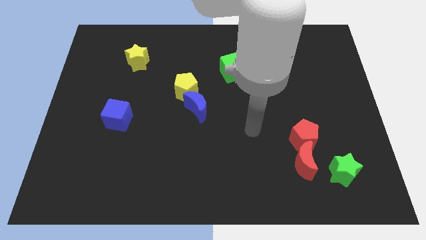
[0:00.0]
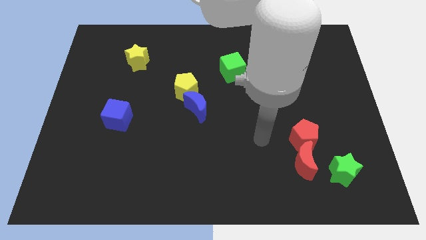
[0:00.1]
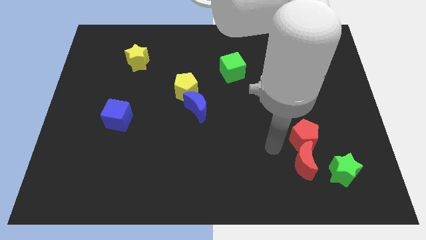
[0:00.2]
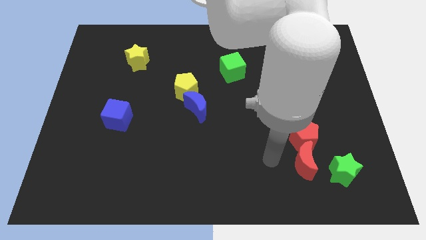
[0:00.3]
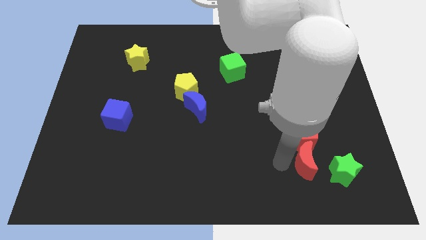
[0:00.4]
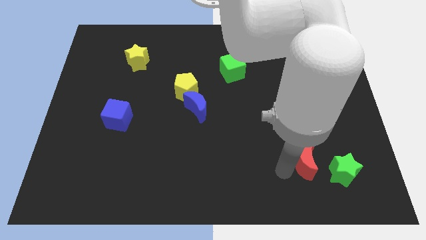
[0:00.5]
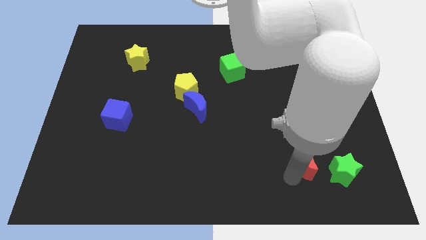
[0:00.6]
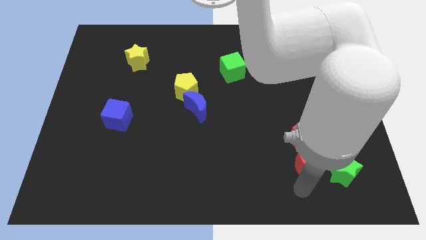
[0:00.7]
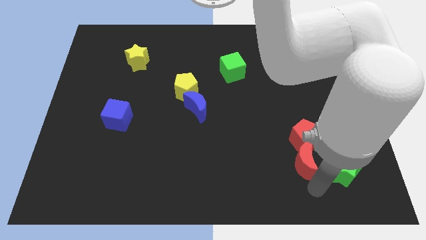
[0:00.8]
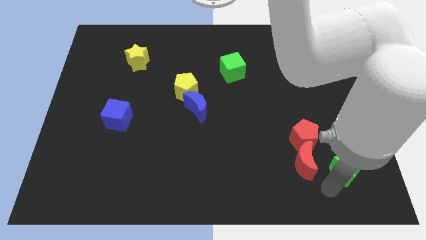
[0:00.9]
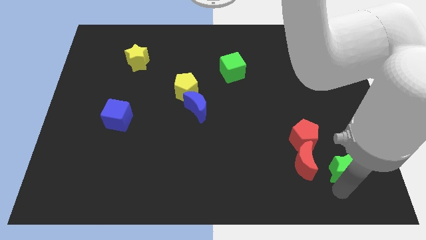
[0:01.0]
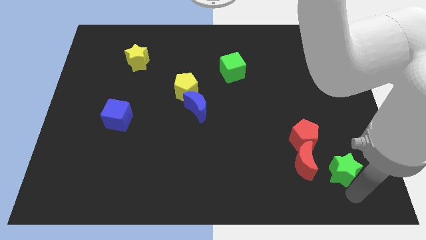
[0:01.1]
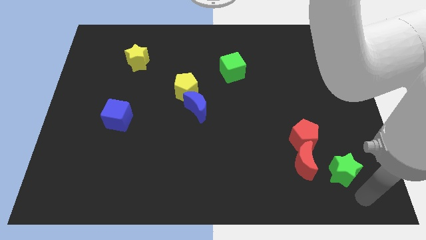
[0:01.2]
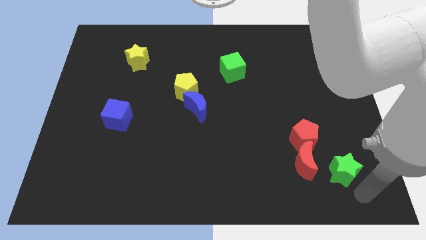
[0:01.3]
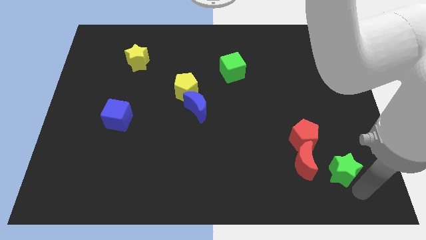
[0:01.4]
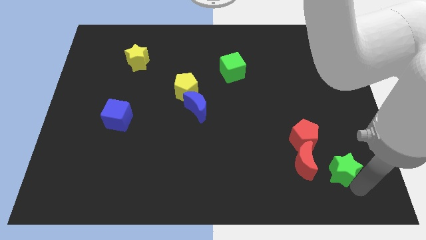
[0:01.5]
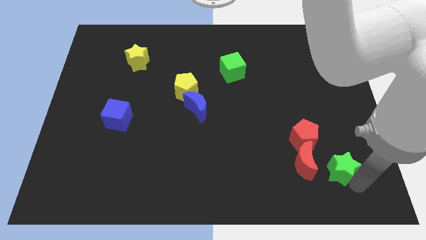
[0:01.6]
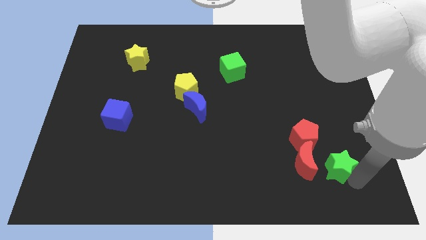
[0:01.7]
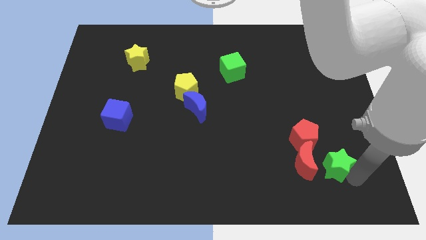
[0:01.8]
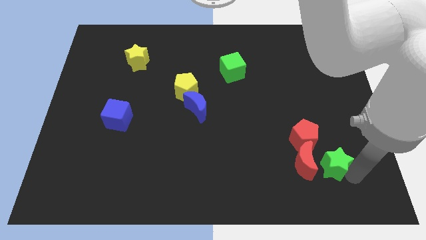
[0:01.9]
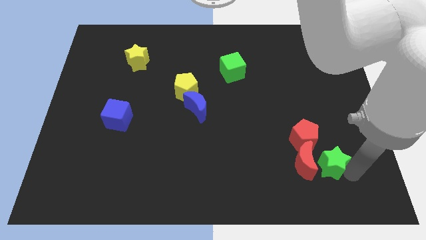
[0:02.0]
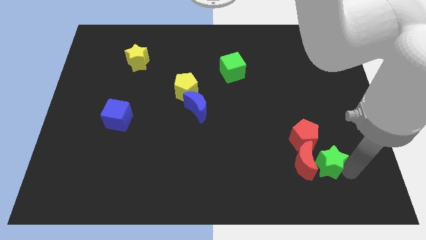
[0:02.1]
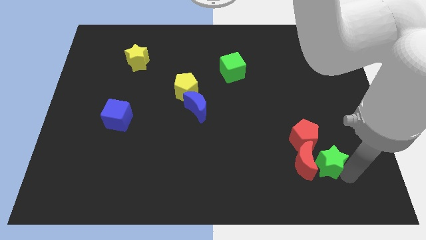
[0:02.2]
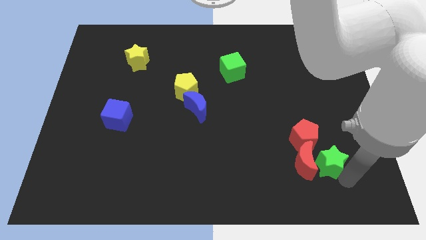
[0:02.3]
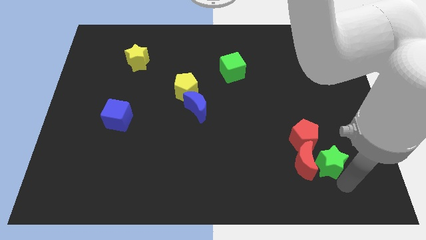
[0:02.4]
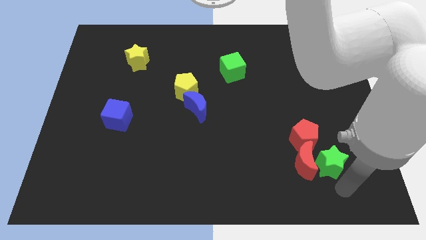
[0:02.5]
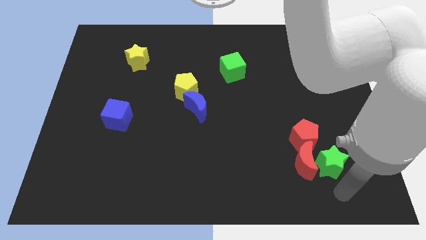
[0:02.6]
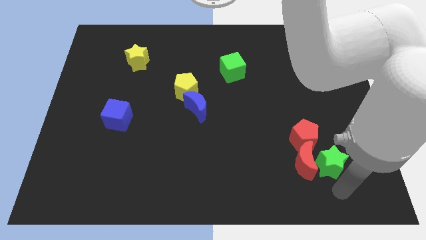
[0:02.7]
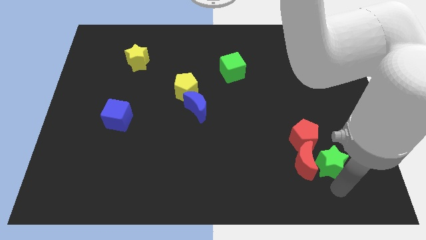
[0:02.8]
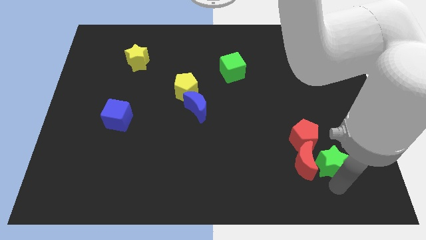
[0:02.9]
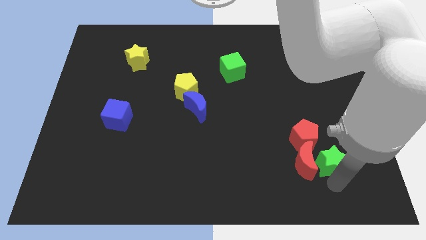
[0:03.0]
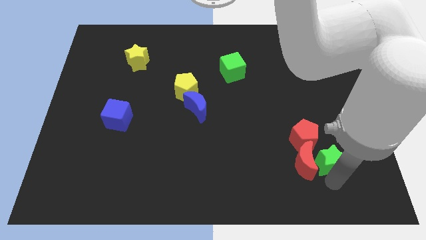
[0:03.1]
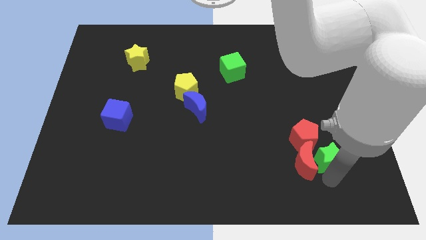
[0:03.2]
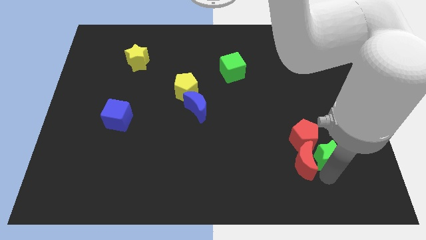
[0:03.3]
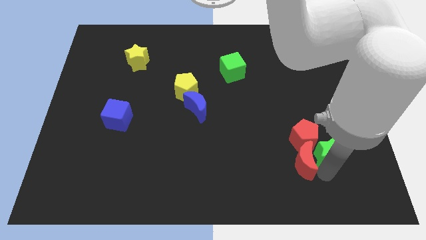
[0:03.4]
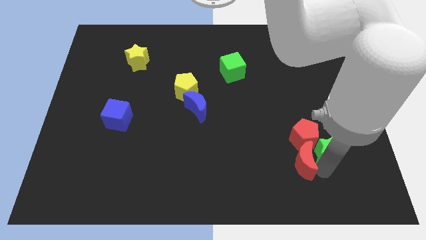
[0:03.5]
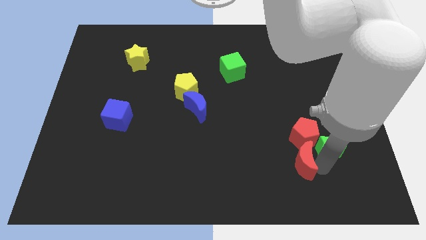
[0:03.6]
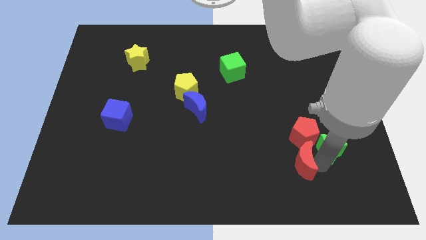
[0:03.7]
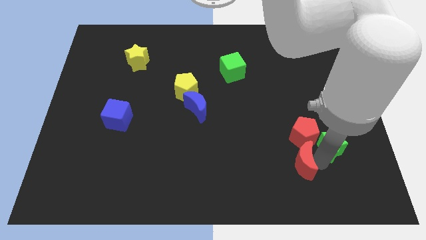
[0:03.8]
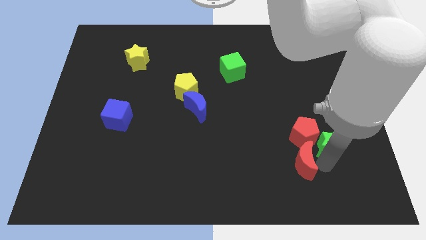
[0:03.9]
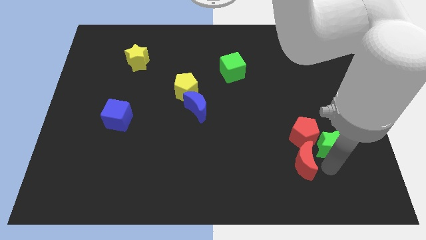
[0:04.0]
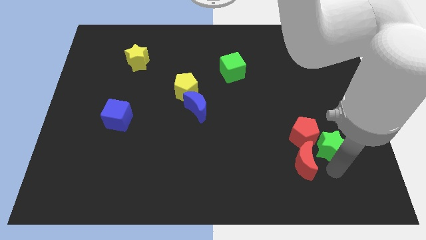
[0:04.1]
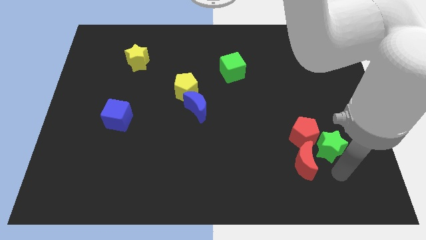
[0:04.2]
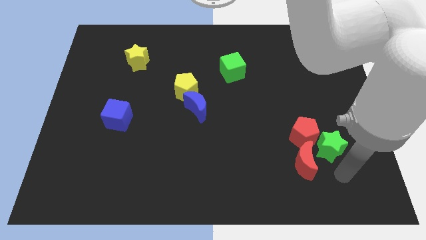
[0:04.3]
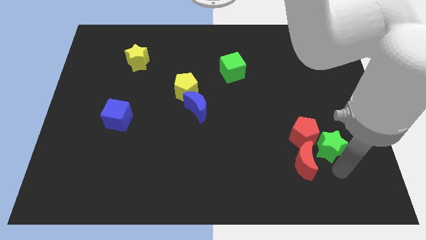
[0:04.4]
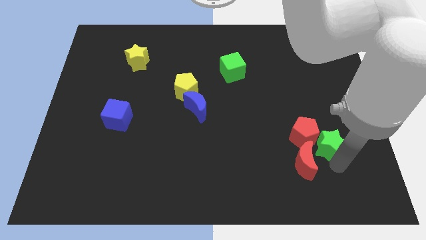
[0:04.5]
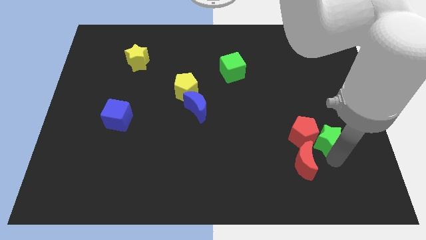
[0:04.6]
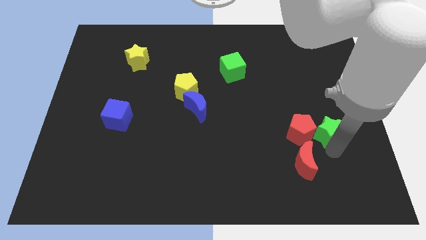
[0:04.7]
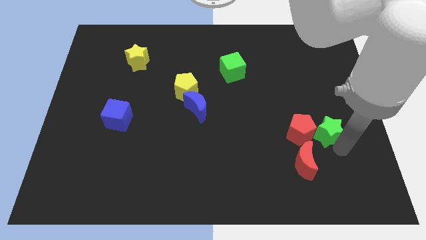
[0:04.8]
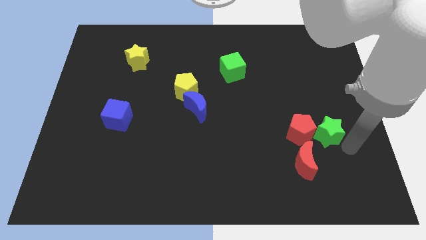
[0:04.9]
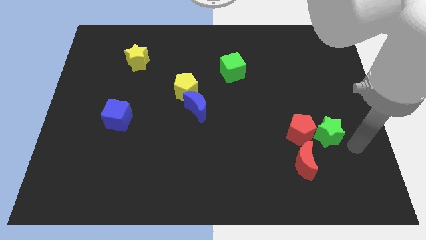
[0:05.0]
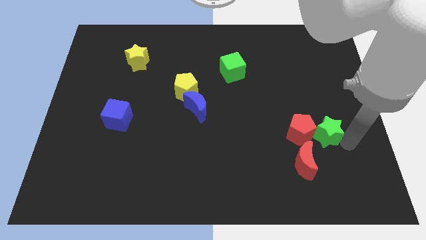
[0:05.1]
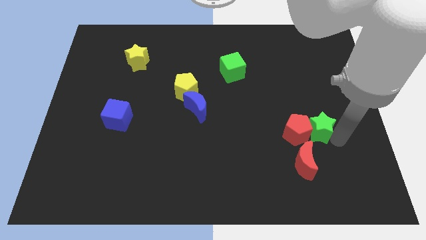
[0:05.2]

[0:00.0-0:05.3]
push the green star up and then to the left a little bit

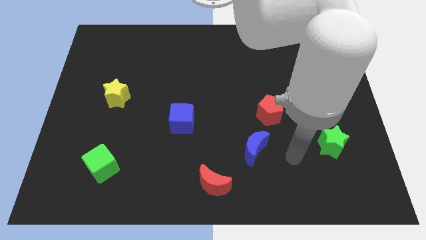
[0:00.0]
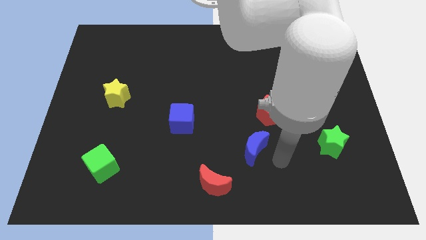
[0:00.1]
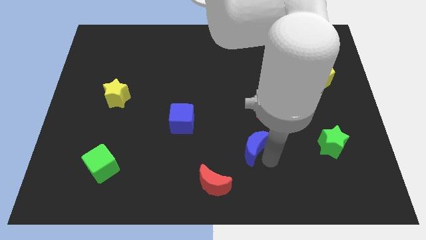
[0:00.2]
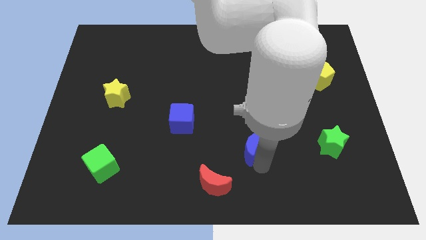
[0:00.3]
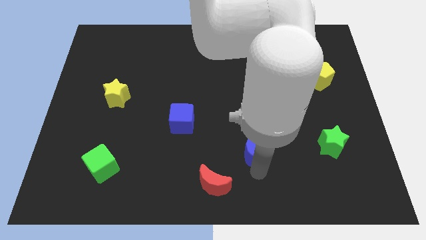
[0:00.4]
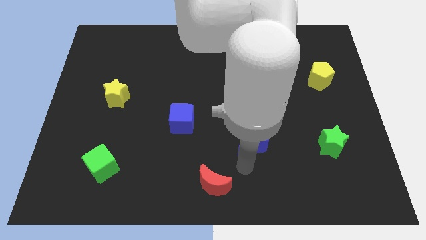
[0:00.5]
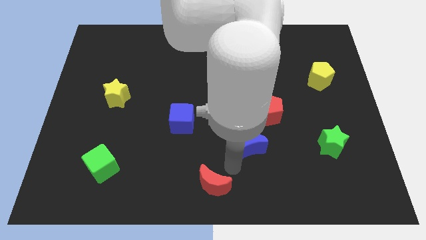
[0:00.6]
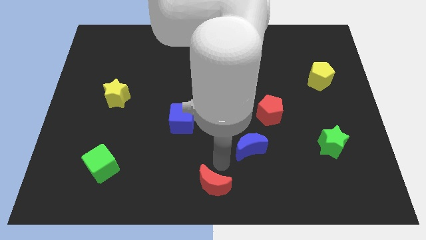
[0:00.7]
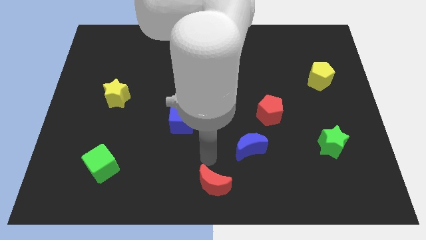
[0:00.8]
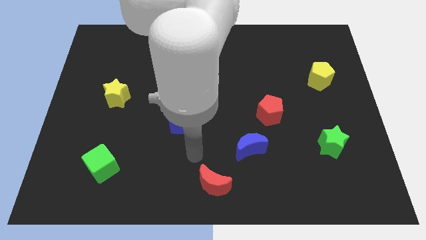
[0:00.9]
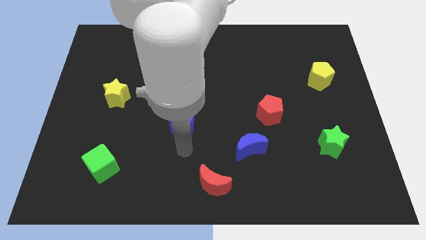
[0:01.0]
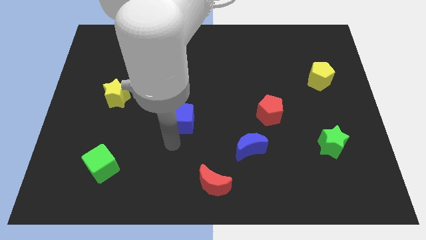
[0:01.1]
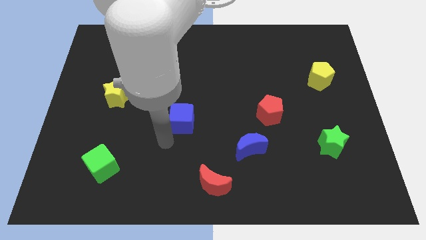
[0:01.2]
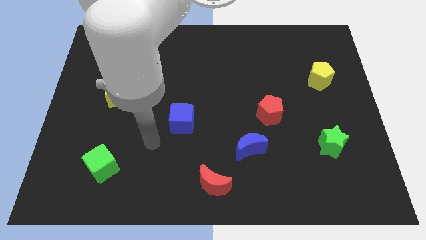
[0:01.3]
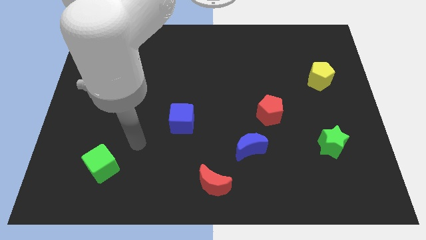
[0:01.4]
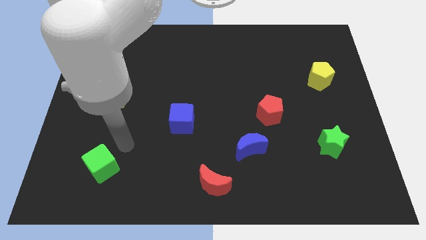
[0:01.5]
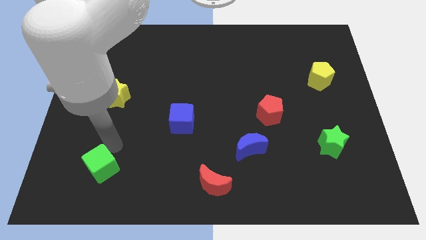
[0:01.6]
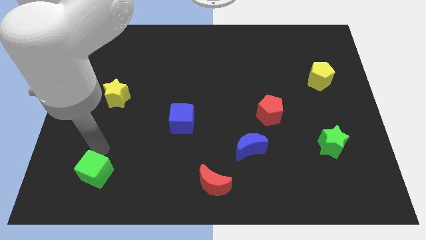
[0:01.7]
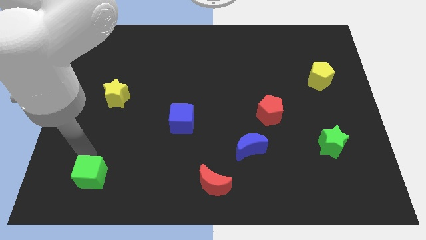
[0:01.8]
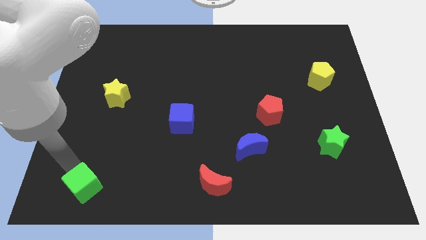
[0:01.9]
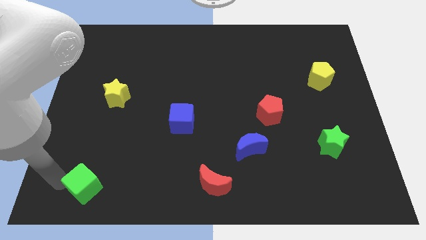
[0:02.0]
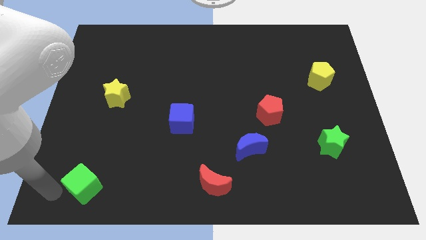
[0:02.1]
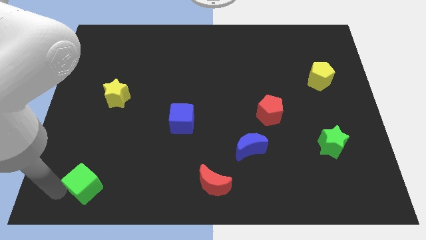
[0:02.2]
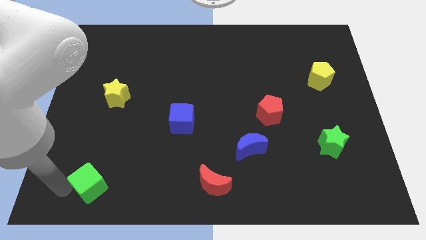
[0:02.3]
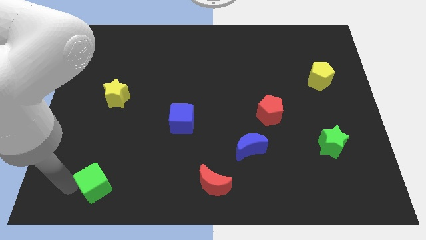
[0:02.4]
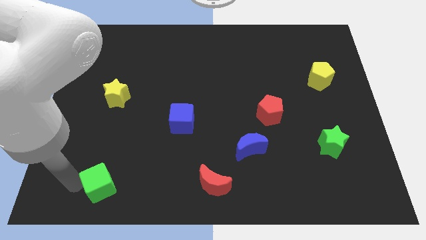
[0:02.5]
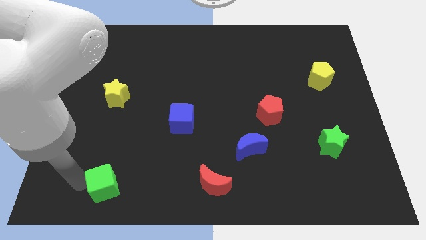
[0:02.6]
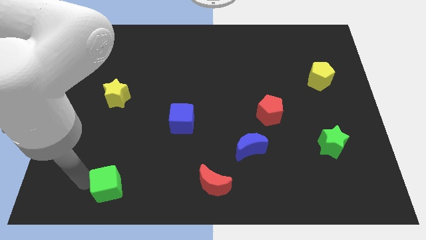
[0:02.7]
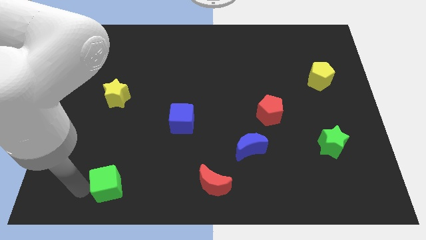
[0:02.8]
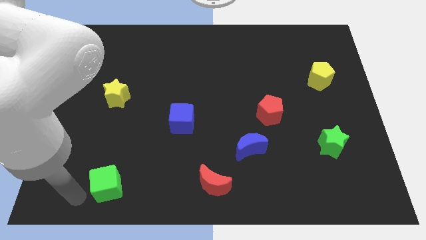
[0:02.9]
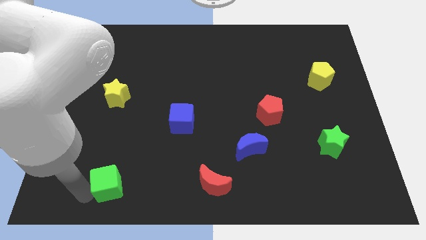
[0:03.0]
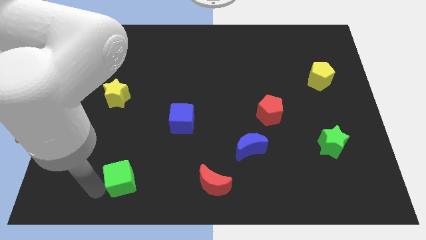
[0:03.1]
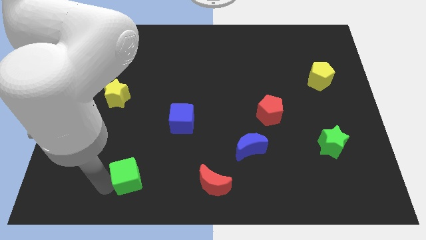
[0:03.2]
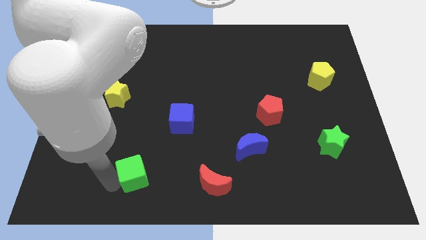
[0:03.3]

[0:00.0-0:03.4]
slightly move the green cube to the right
